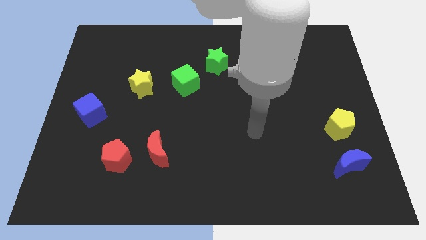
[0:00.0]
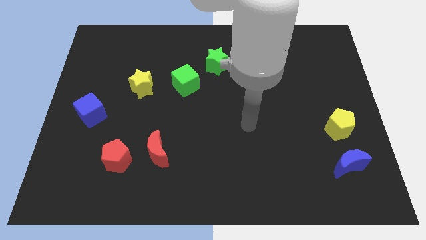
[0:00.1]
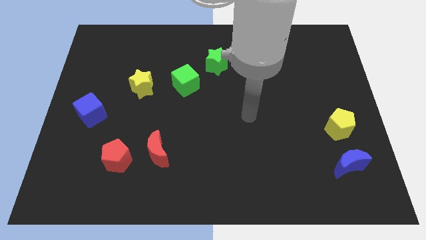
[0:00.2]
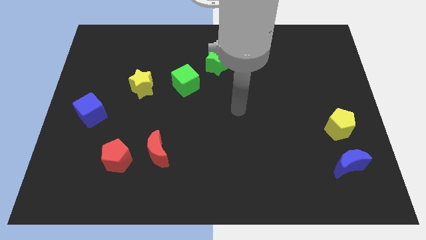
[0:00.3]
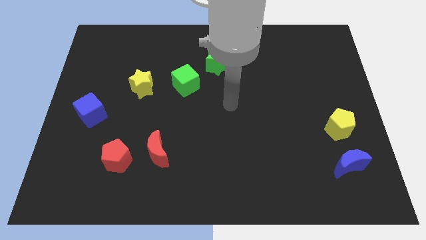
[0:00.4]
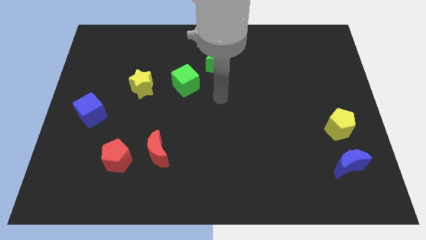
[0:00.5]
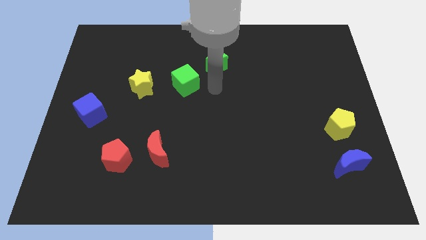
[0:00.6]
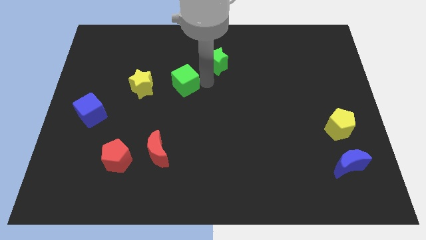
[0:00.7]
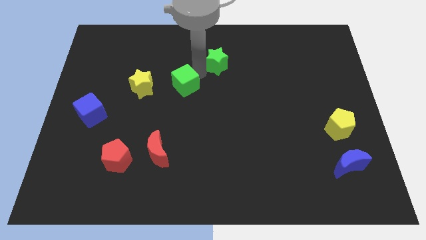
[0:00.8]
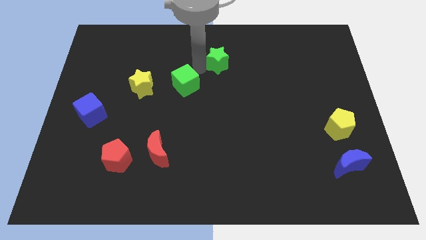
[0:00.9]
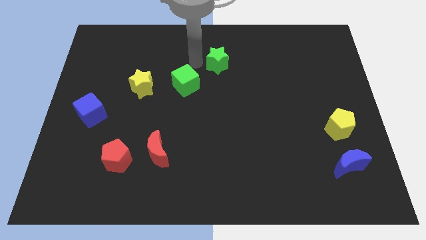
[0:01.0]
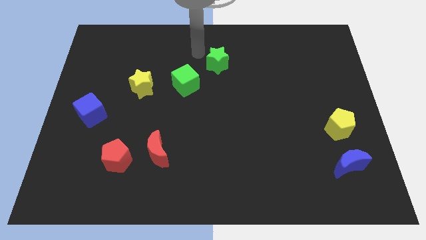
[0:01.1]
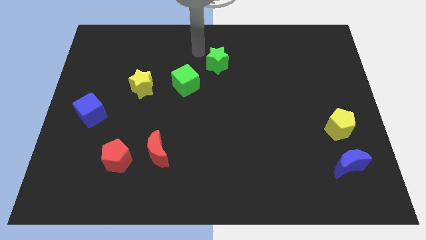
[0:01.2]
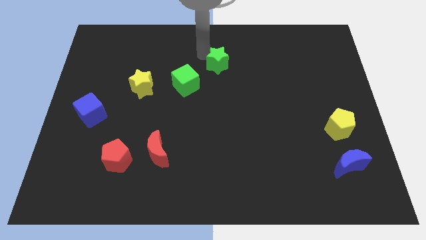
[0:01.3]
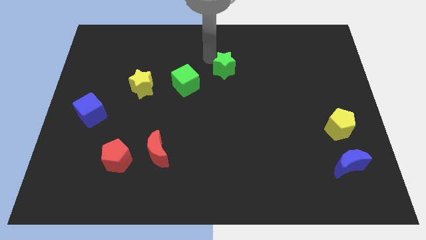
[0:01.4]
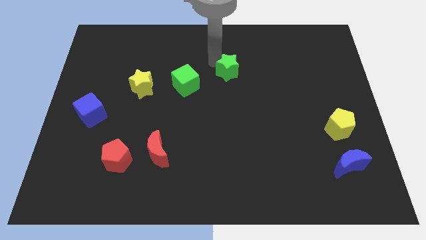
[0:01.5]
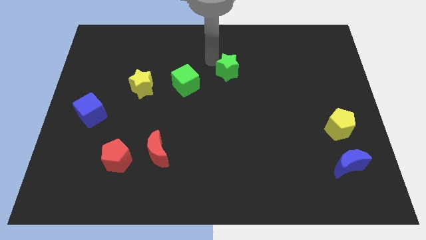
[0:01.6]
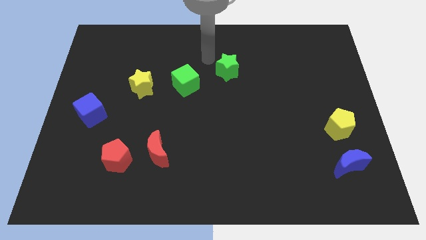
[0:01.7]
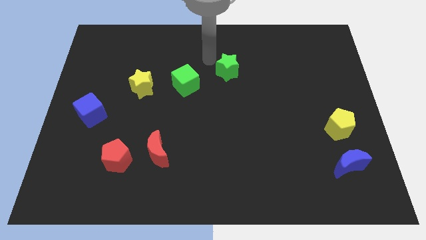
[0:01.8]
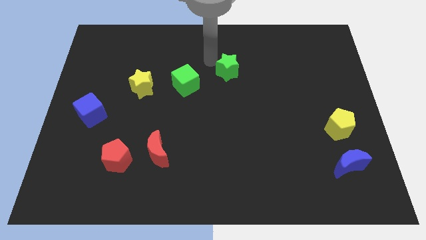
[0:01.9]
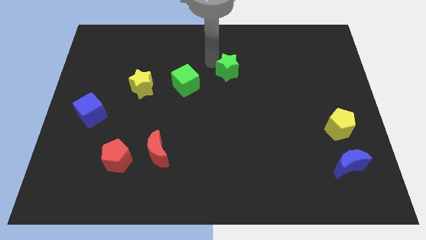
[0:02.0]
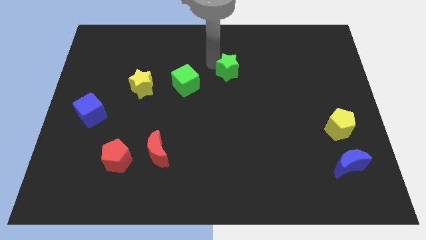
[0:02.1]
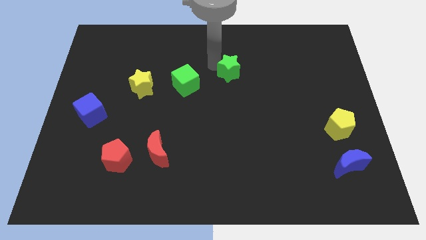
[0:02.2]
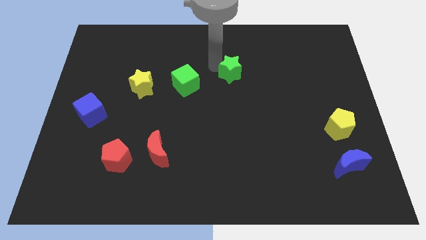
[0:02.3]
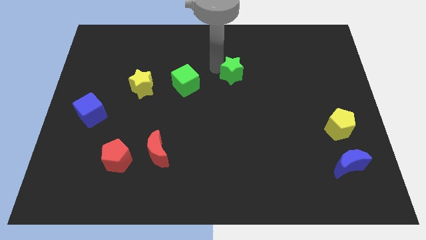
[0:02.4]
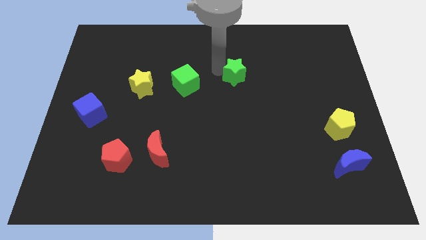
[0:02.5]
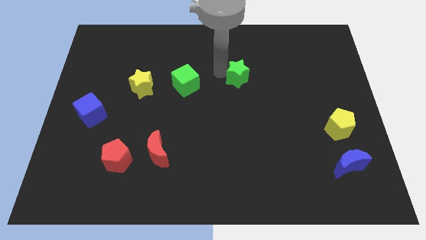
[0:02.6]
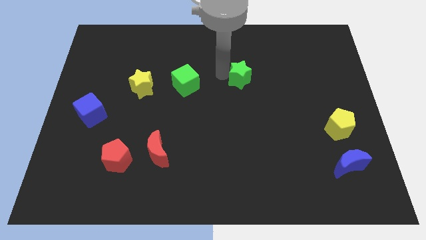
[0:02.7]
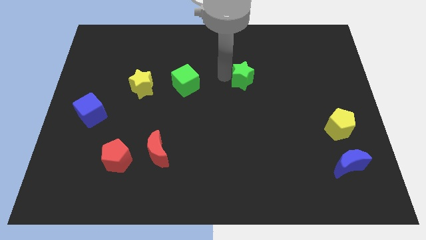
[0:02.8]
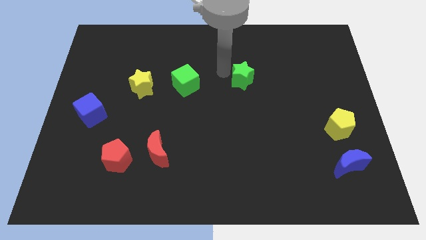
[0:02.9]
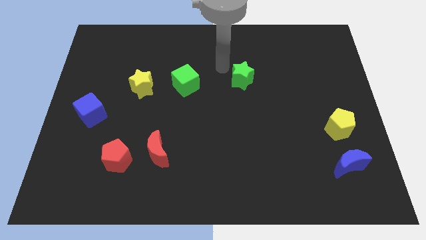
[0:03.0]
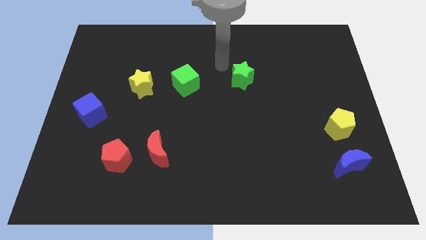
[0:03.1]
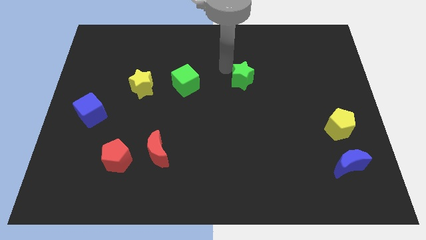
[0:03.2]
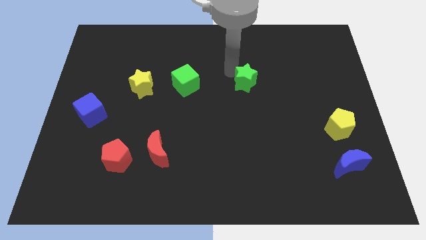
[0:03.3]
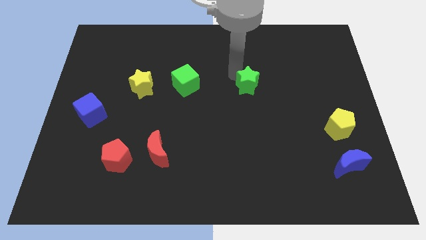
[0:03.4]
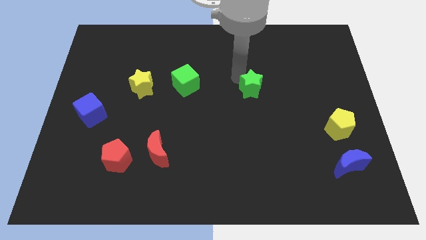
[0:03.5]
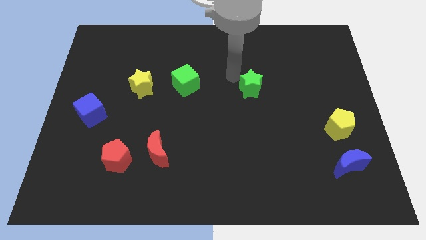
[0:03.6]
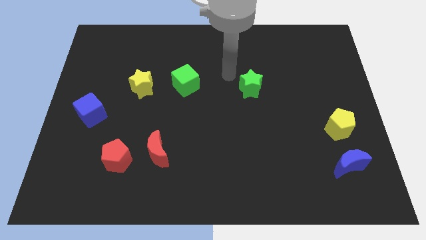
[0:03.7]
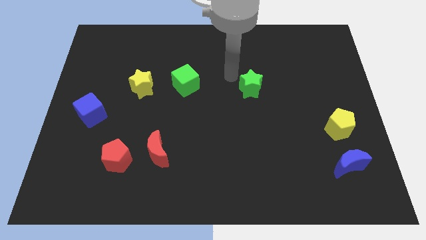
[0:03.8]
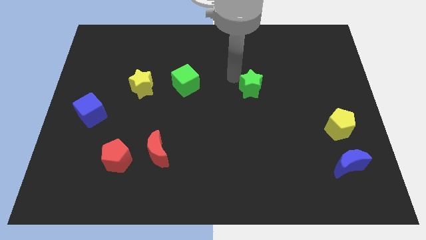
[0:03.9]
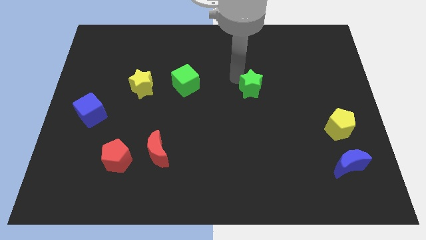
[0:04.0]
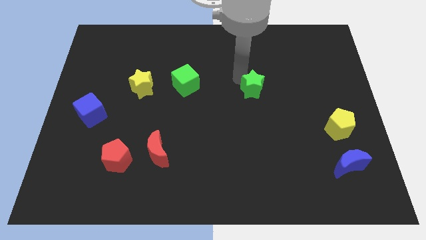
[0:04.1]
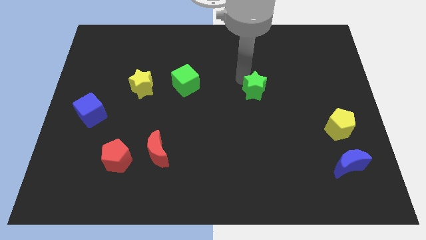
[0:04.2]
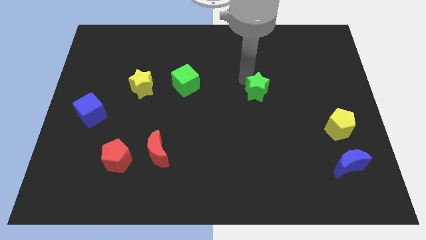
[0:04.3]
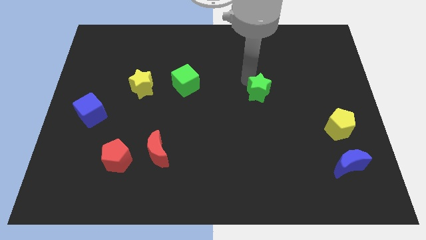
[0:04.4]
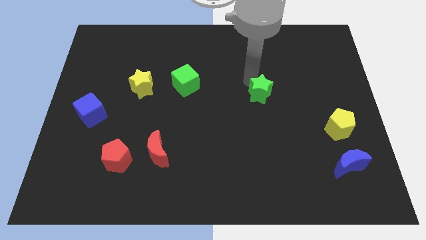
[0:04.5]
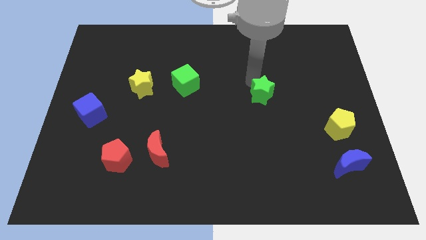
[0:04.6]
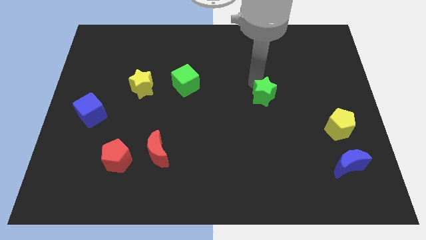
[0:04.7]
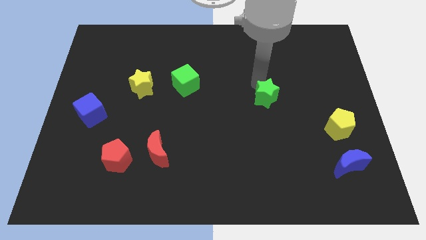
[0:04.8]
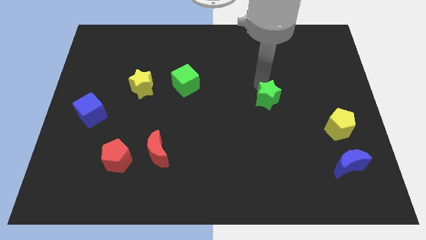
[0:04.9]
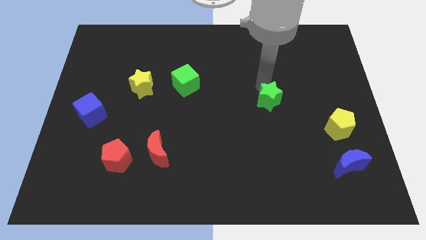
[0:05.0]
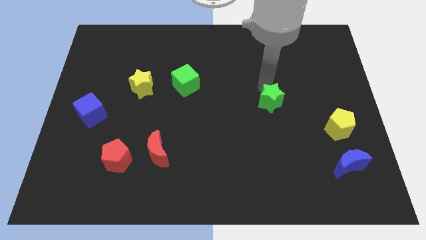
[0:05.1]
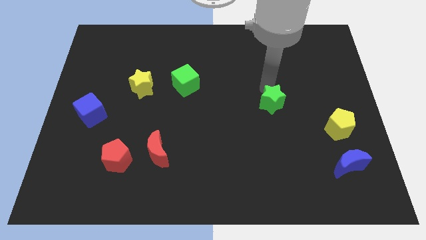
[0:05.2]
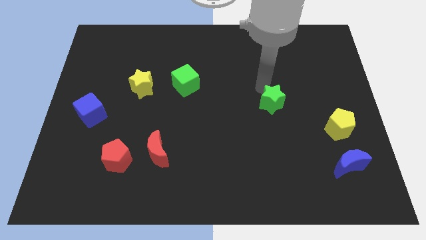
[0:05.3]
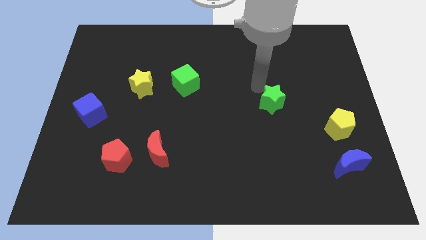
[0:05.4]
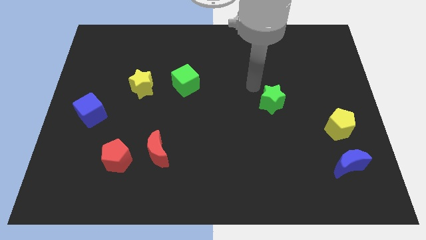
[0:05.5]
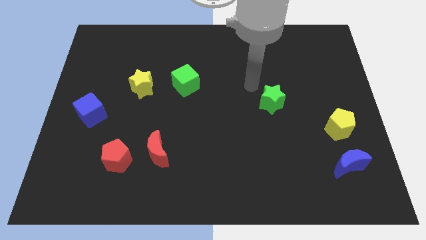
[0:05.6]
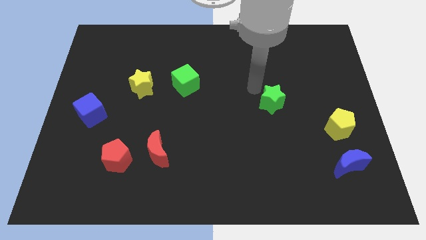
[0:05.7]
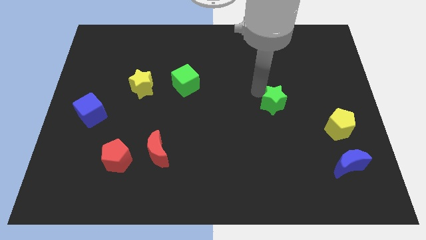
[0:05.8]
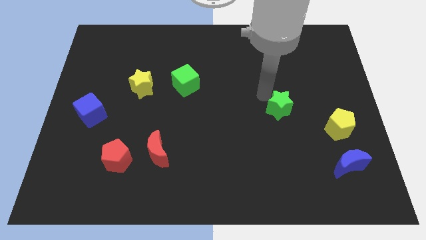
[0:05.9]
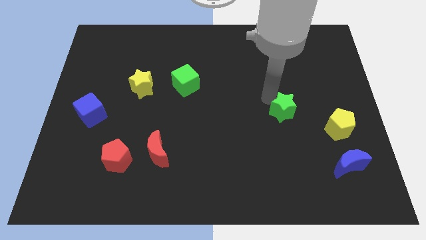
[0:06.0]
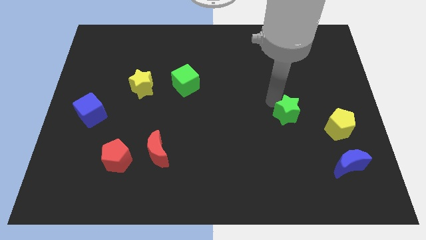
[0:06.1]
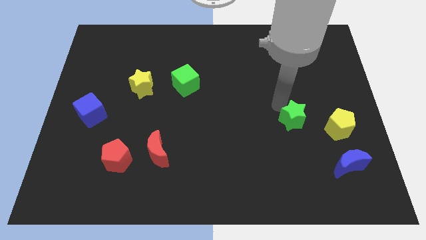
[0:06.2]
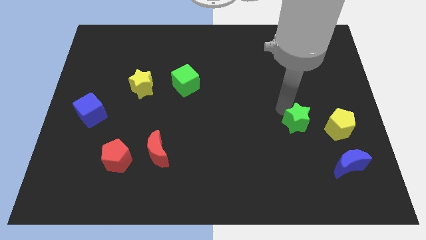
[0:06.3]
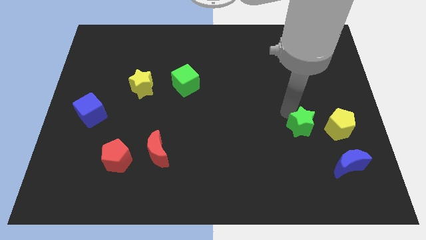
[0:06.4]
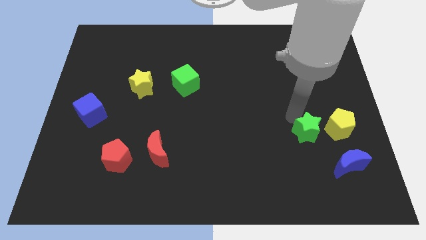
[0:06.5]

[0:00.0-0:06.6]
move the green star to the bottom left side of the yellow pentagon

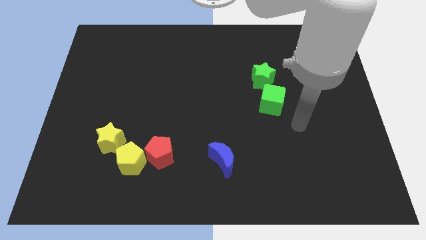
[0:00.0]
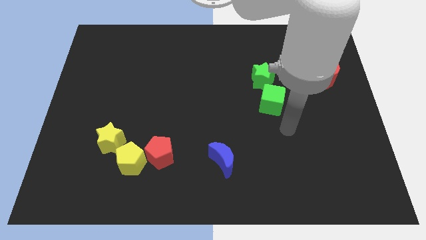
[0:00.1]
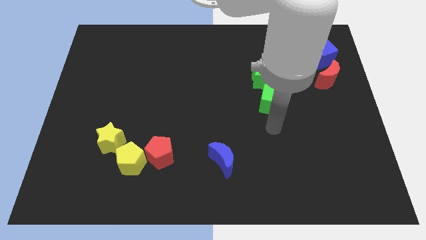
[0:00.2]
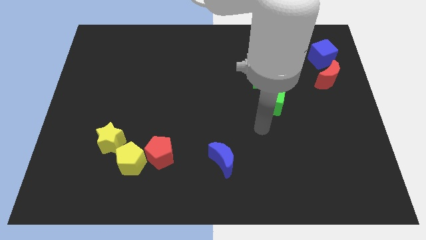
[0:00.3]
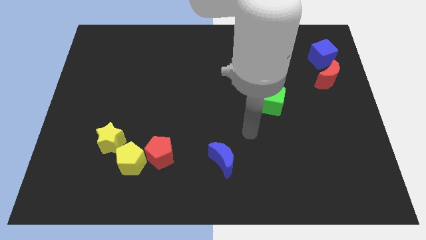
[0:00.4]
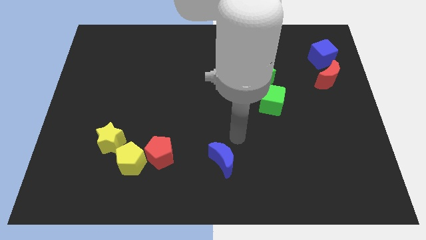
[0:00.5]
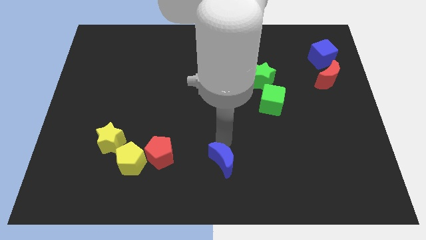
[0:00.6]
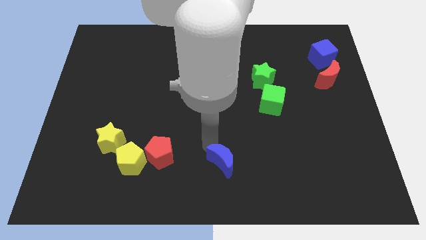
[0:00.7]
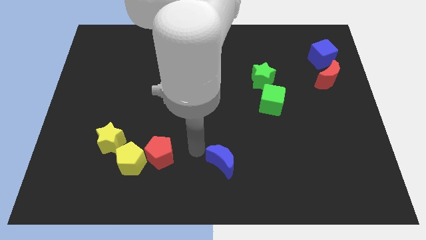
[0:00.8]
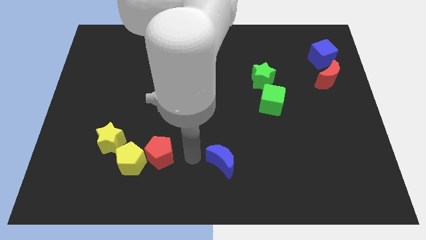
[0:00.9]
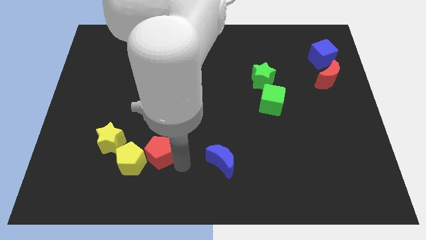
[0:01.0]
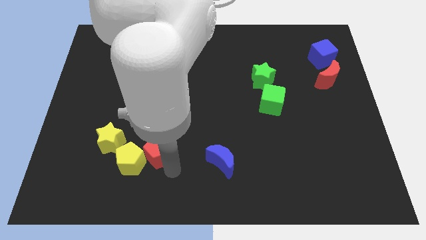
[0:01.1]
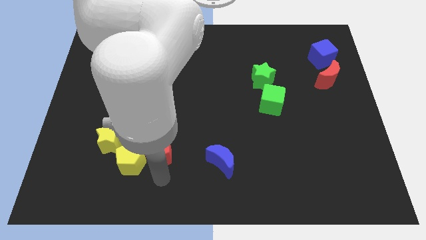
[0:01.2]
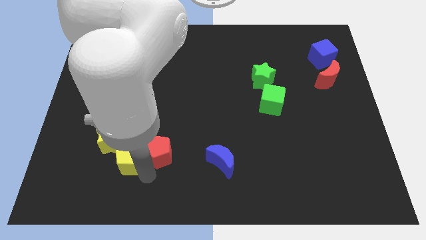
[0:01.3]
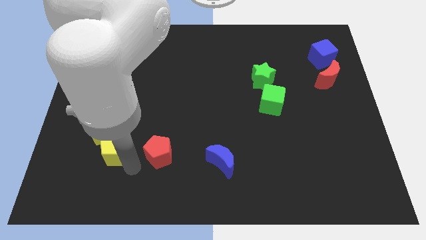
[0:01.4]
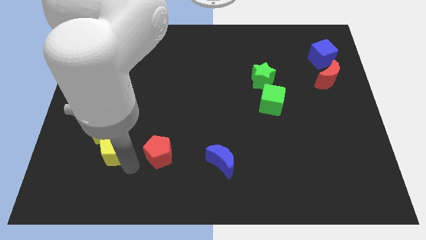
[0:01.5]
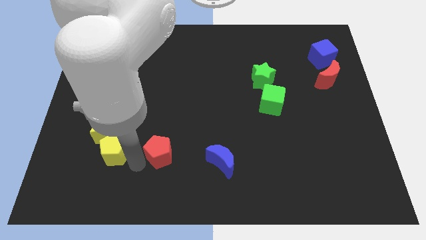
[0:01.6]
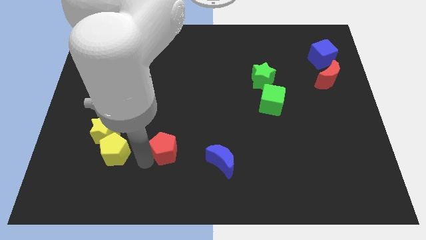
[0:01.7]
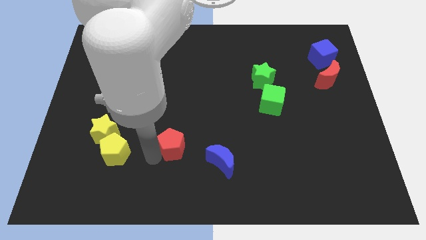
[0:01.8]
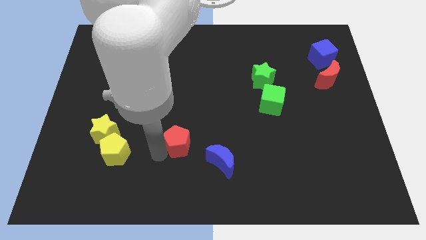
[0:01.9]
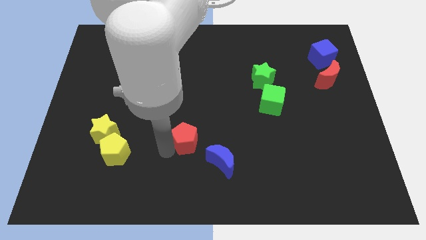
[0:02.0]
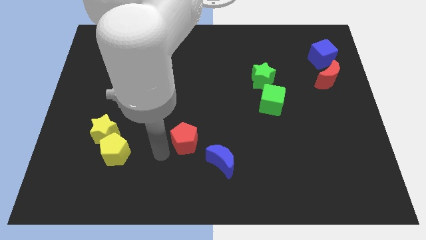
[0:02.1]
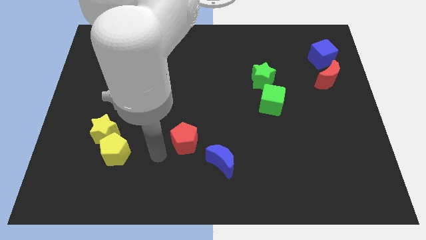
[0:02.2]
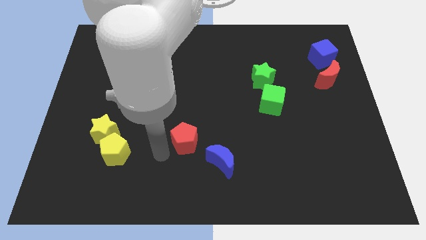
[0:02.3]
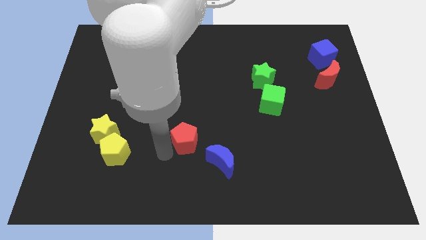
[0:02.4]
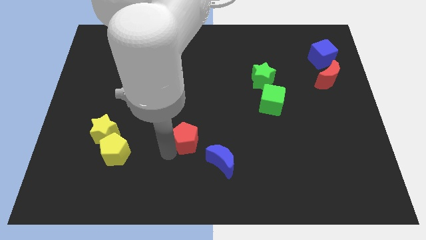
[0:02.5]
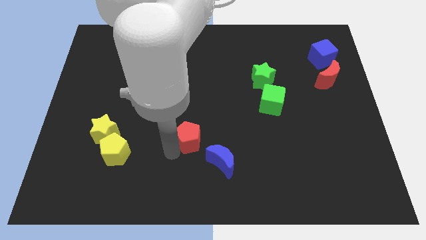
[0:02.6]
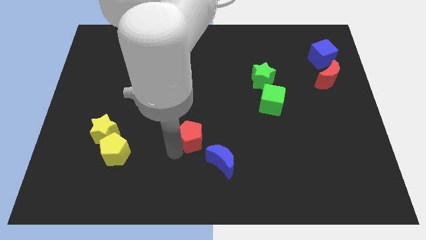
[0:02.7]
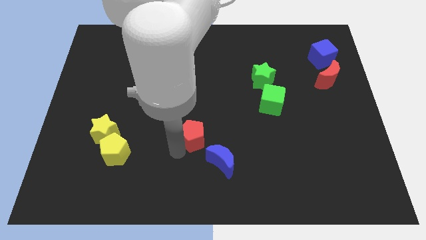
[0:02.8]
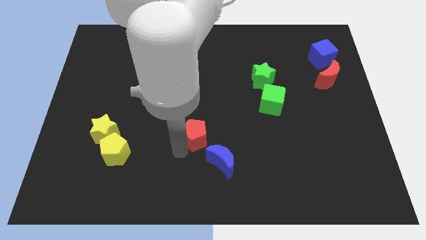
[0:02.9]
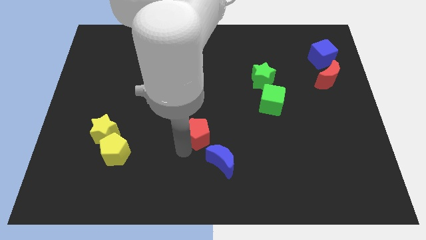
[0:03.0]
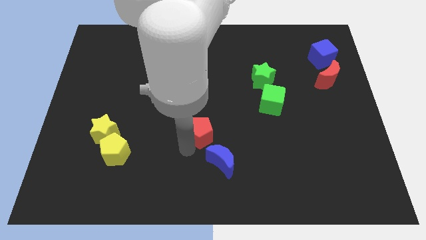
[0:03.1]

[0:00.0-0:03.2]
push the red pentagon to the top side of the blue moon
